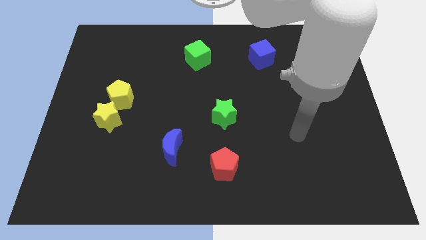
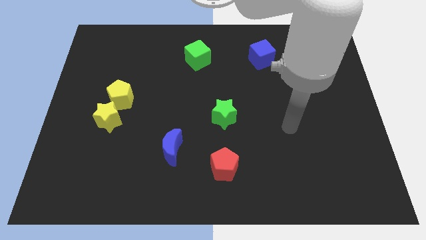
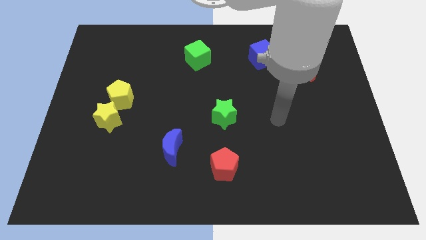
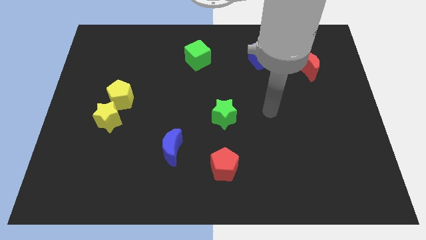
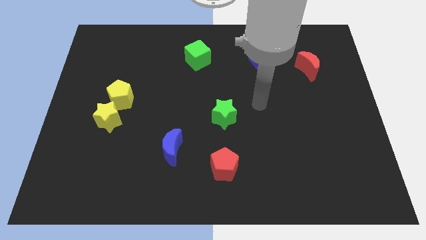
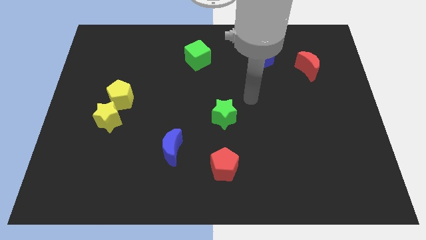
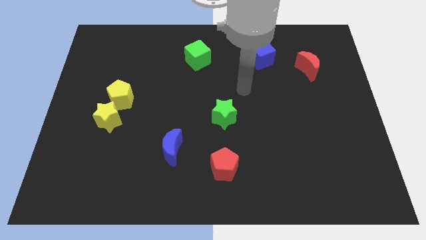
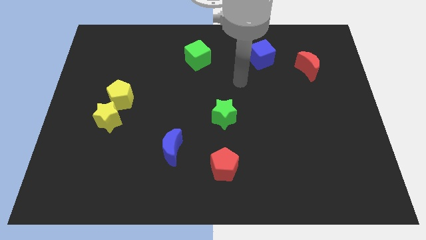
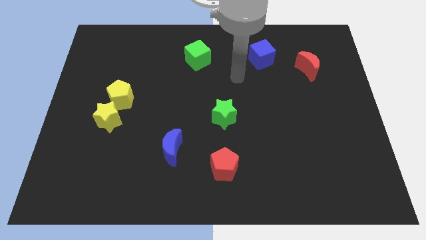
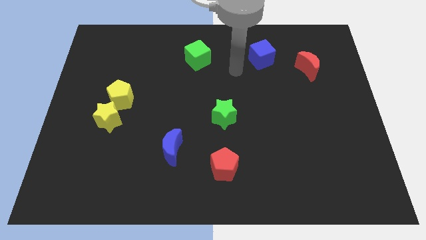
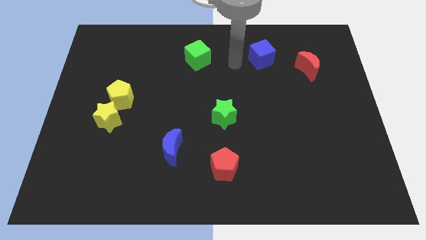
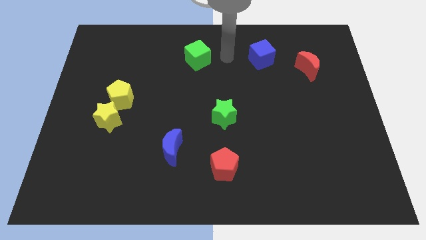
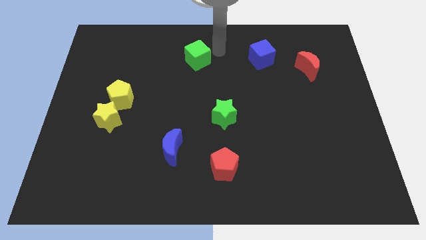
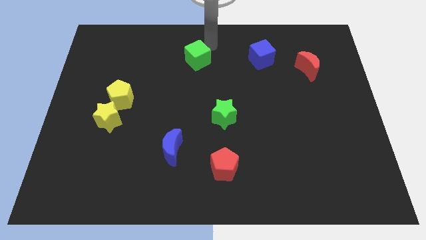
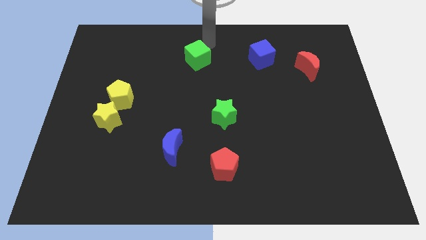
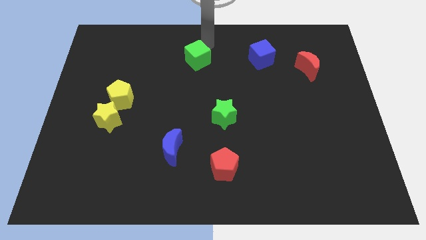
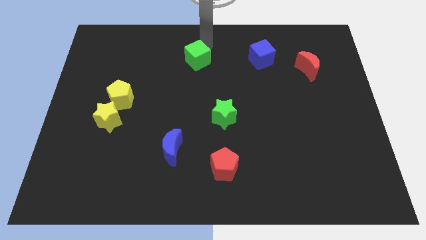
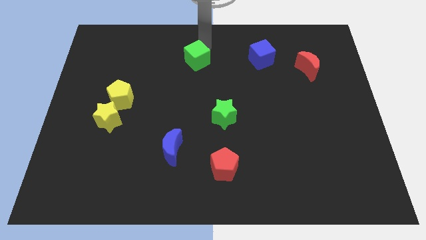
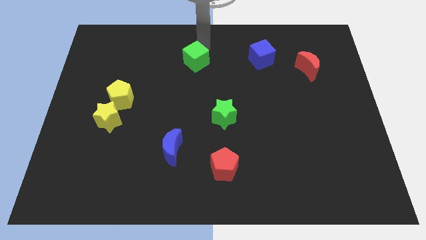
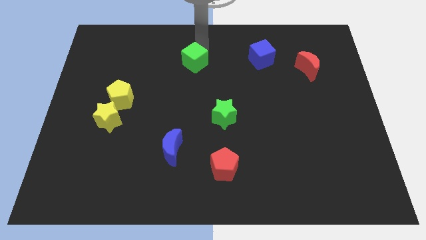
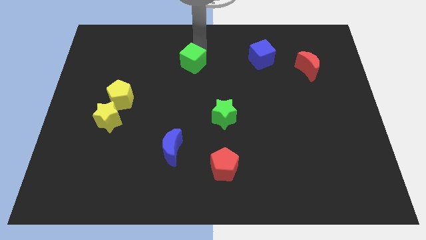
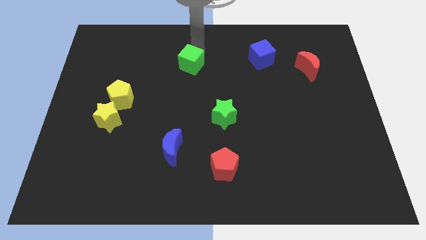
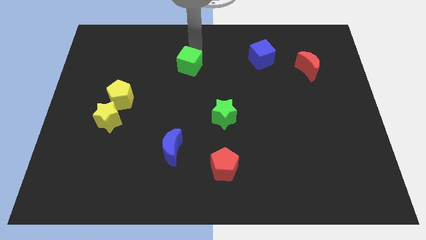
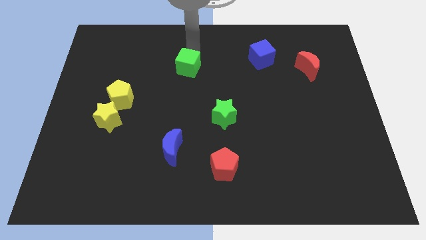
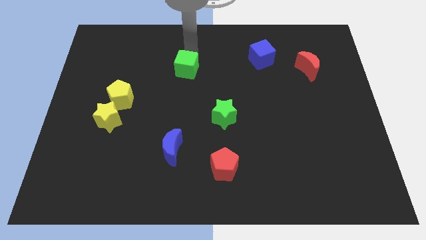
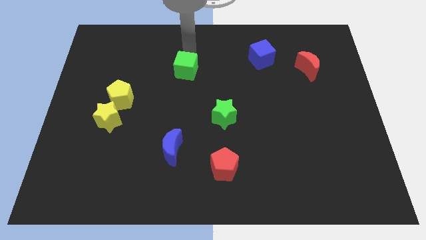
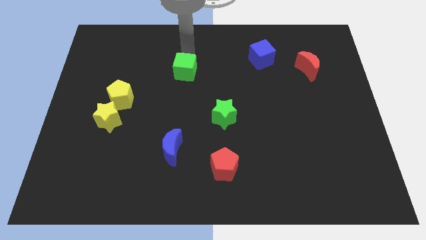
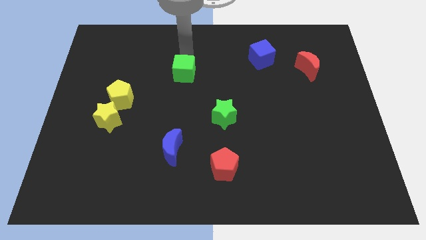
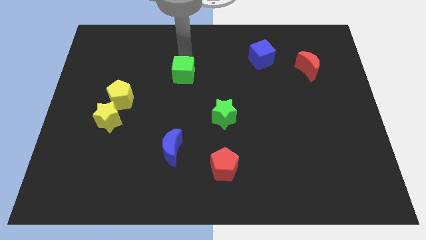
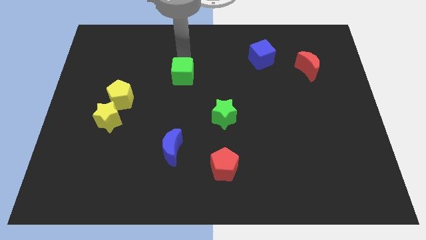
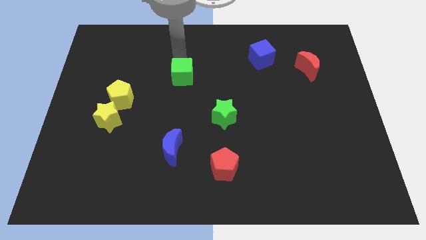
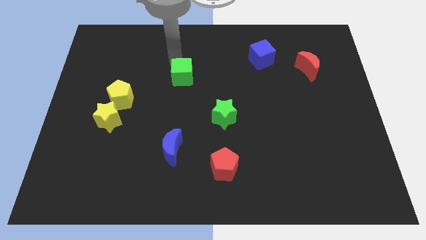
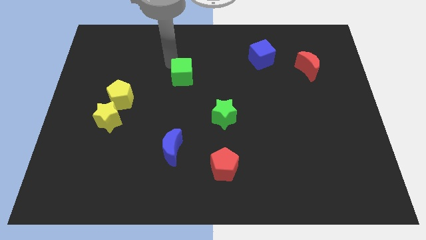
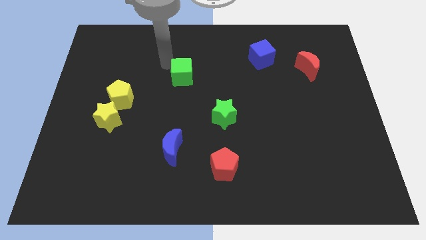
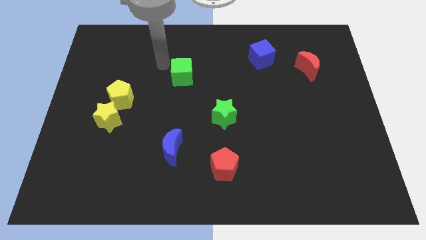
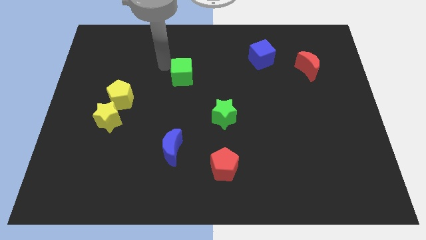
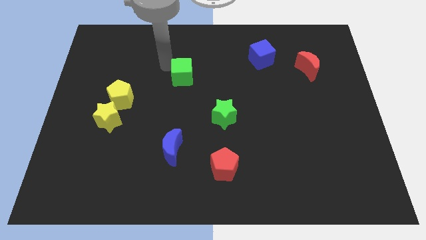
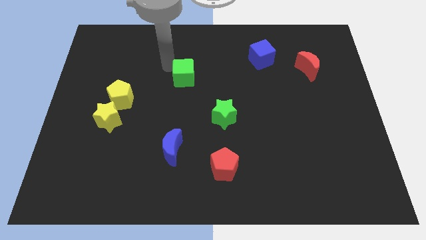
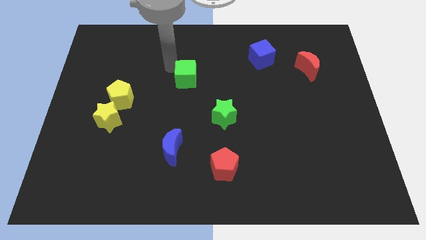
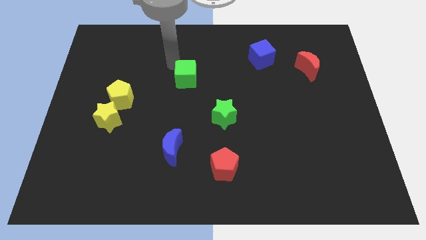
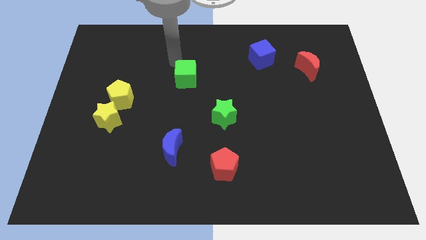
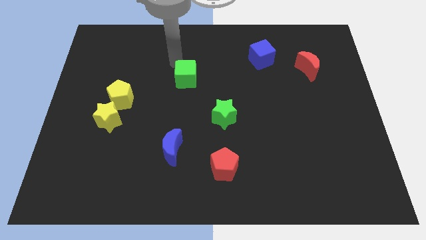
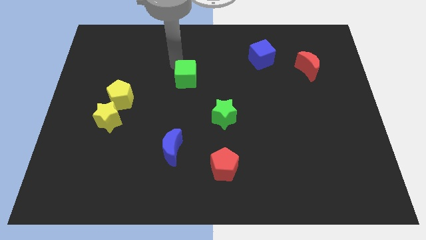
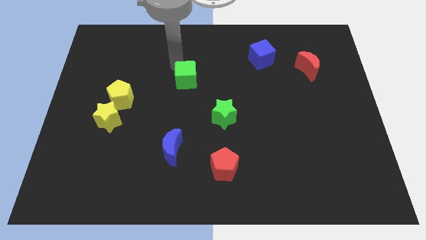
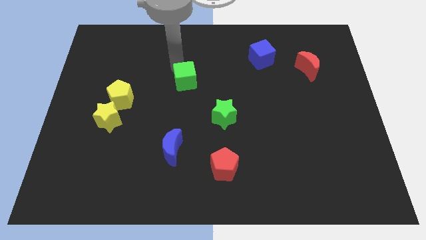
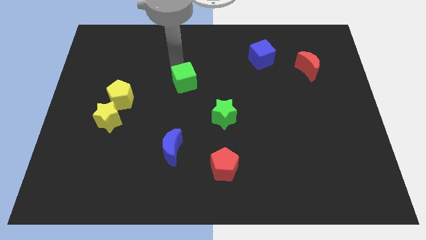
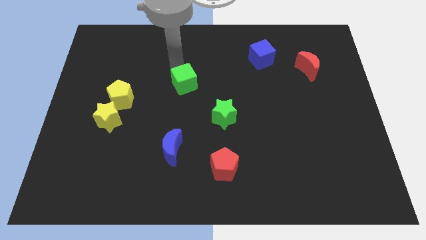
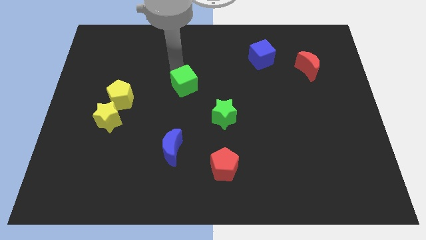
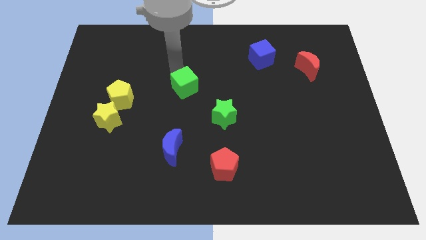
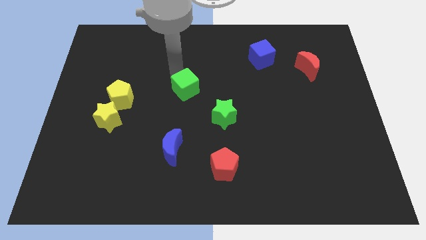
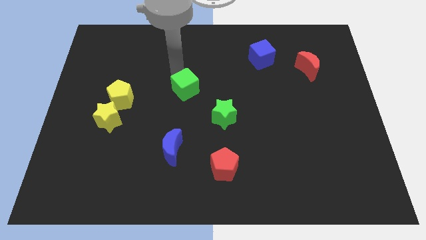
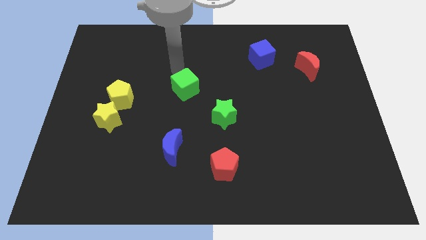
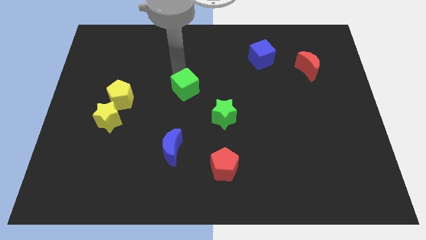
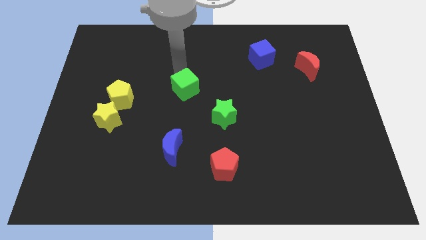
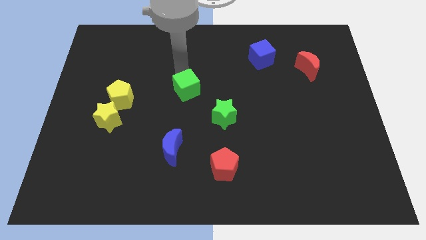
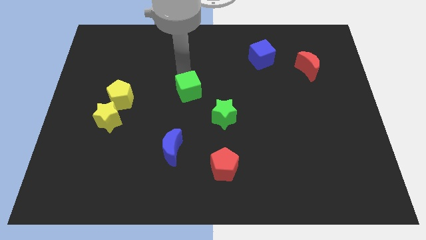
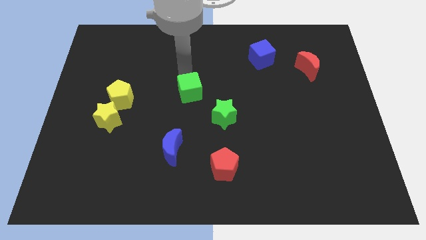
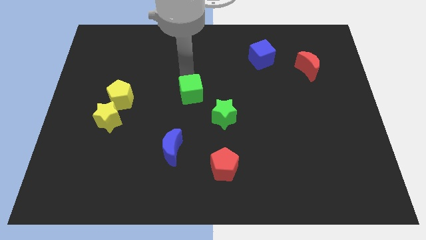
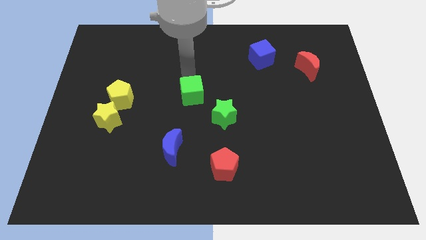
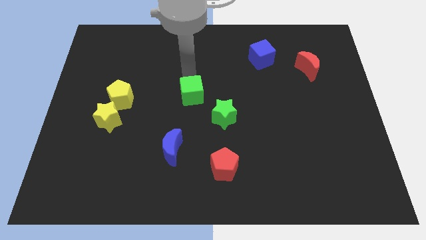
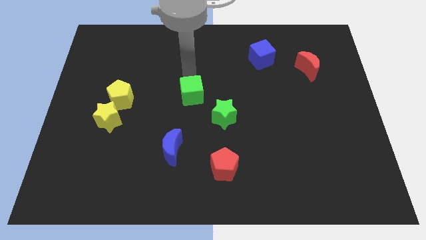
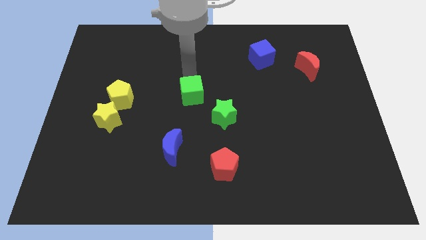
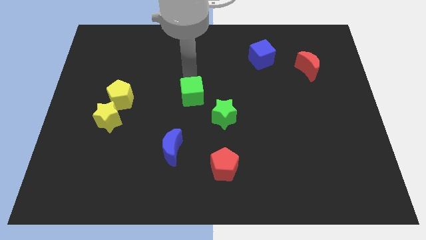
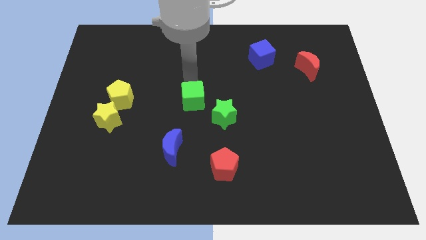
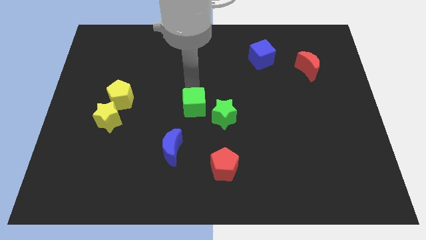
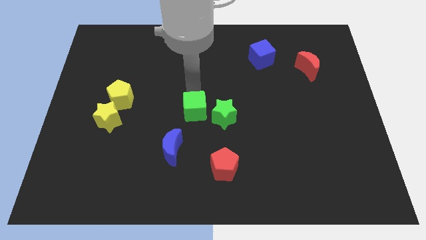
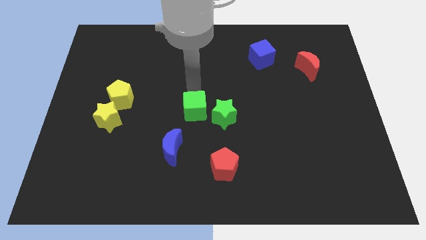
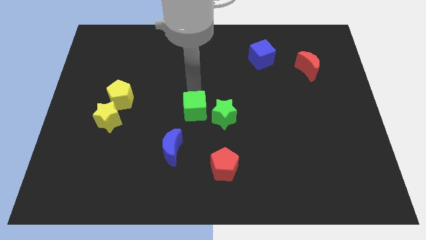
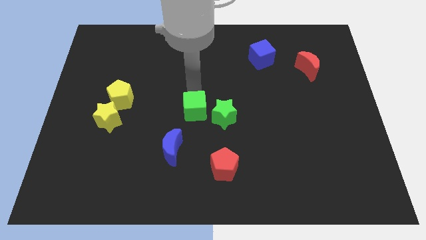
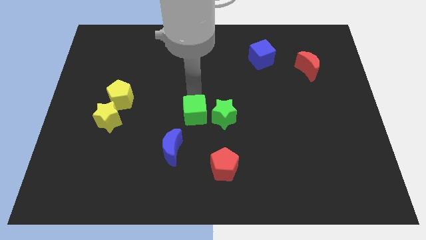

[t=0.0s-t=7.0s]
slide the green cube to the top right of the blue moon

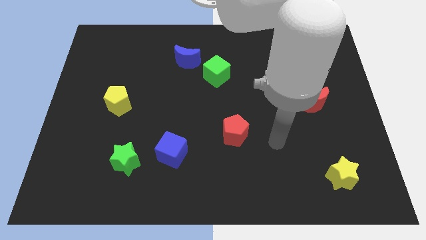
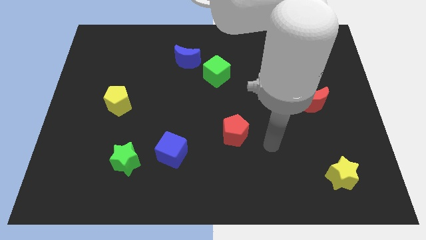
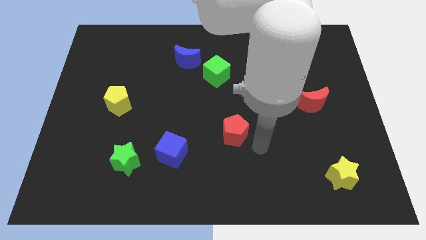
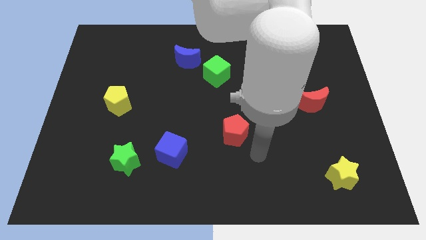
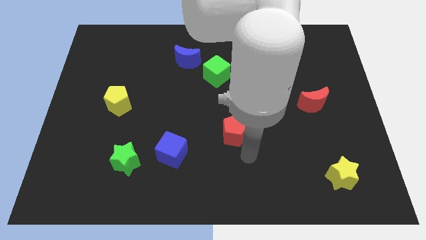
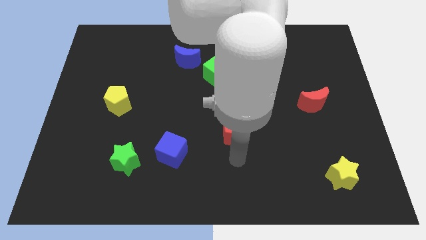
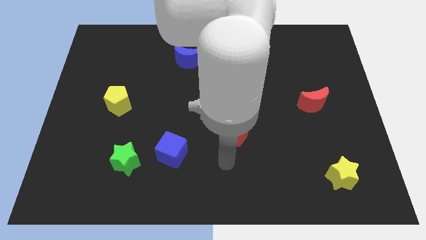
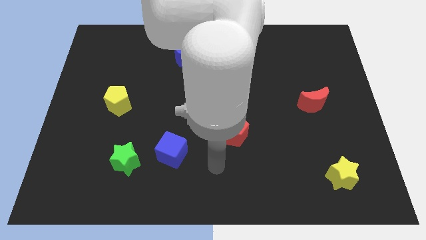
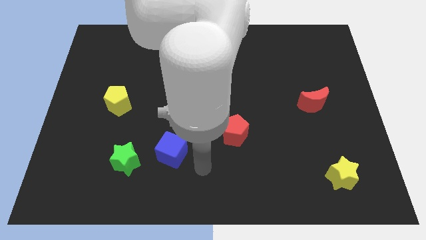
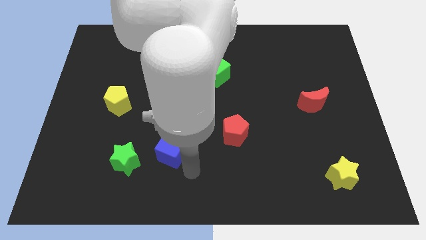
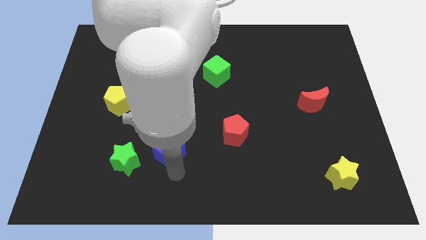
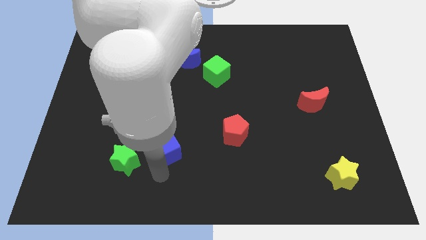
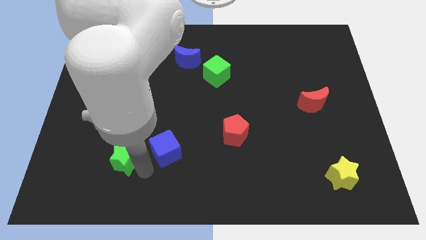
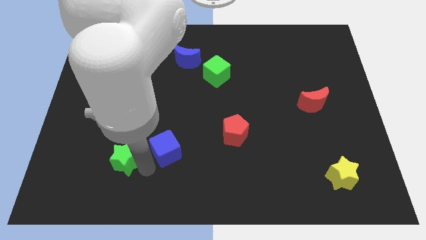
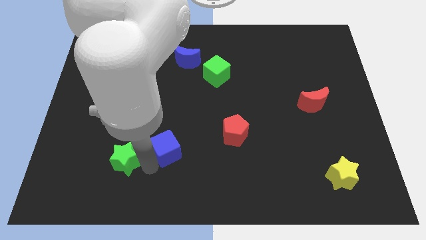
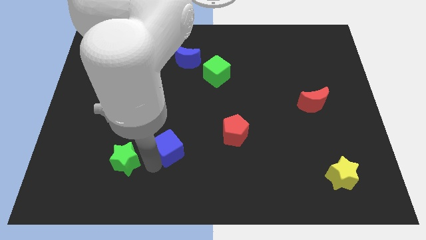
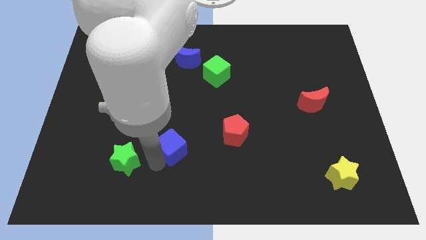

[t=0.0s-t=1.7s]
slide the blue cube to the left of the red pentagon
